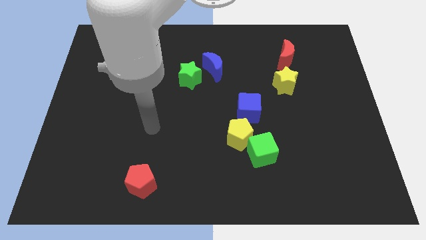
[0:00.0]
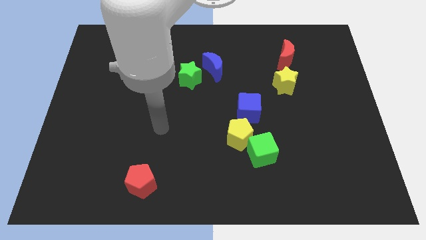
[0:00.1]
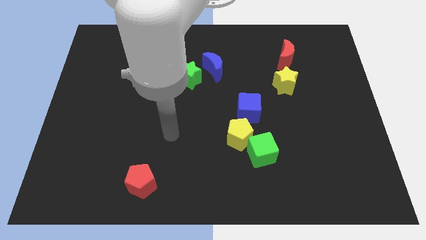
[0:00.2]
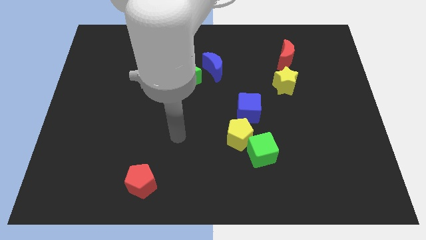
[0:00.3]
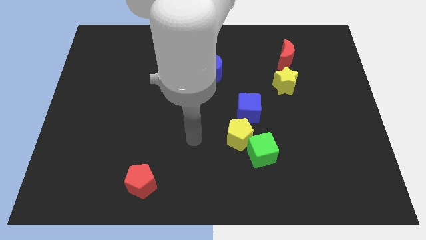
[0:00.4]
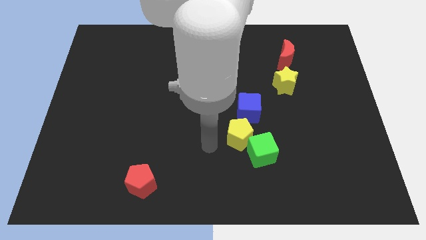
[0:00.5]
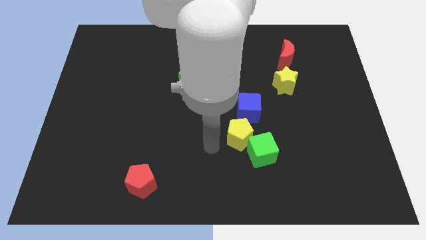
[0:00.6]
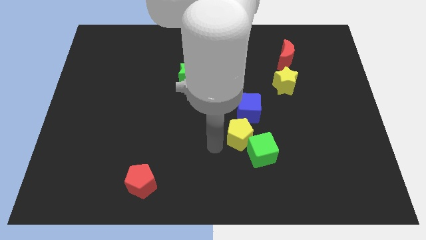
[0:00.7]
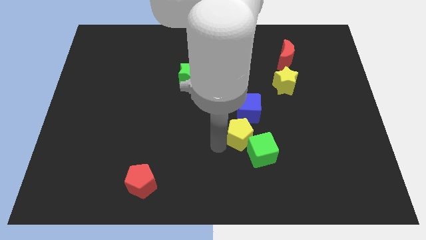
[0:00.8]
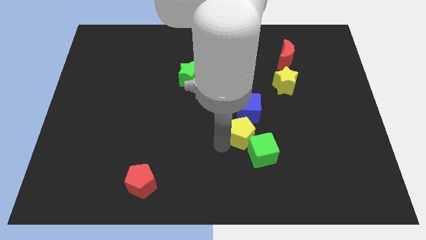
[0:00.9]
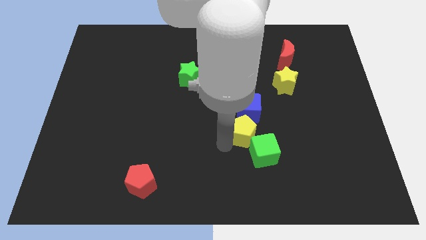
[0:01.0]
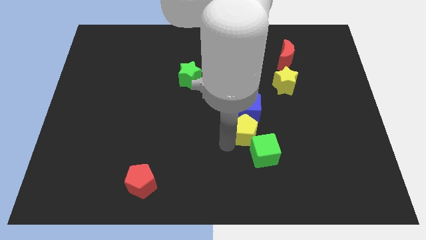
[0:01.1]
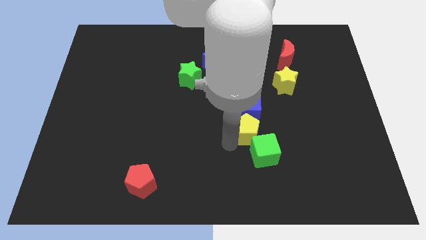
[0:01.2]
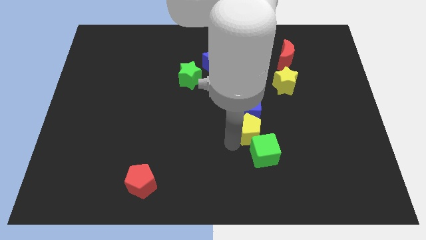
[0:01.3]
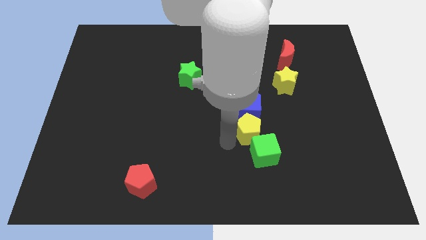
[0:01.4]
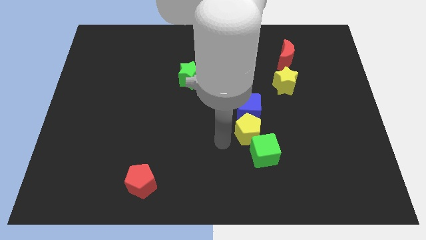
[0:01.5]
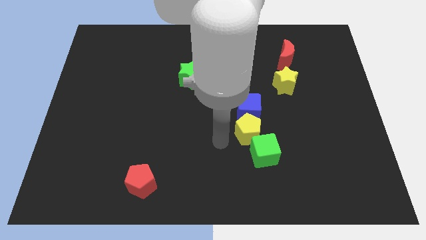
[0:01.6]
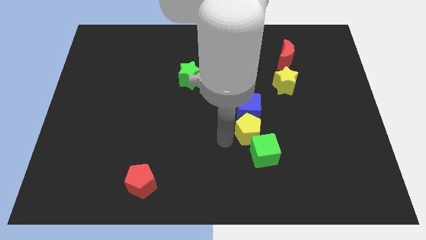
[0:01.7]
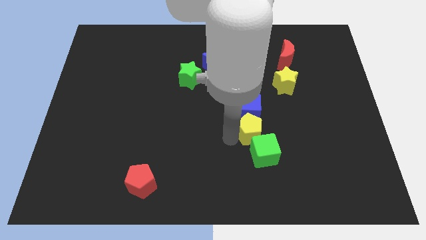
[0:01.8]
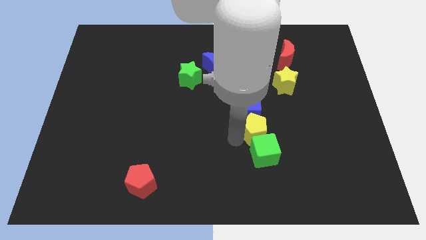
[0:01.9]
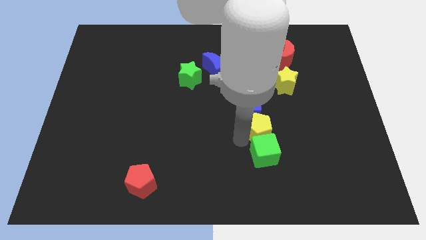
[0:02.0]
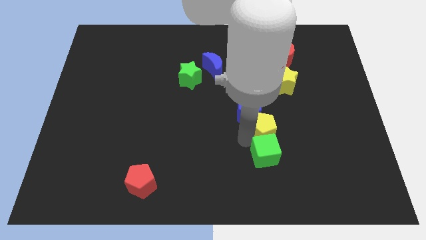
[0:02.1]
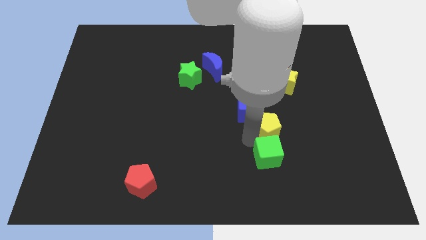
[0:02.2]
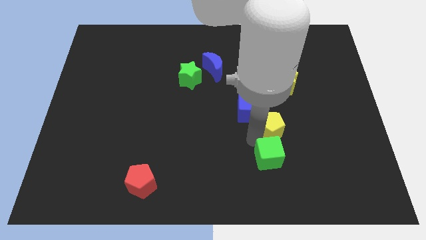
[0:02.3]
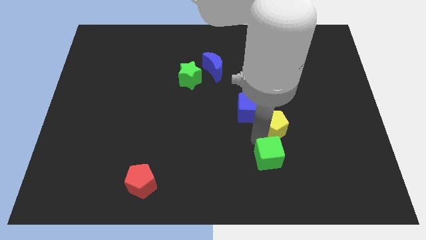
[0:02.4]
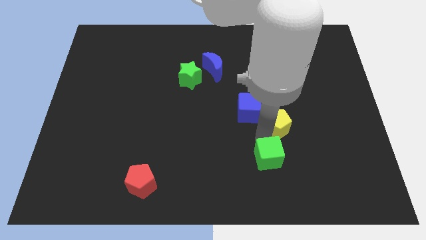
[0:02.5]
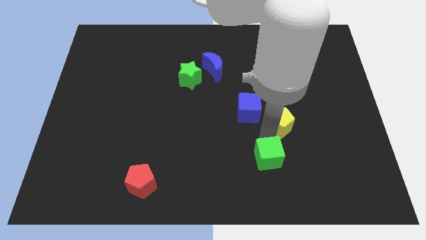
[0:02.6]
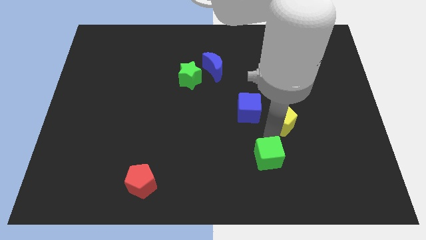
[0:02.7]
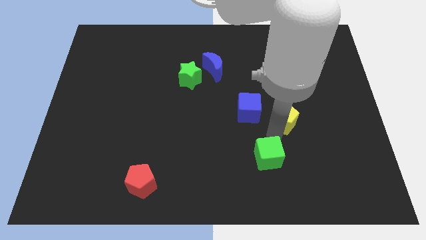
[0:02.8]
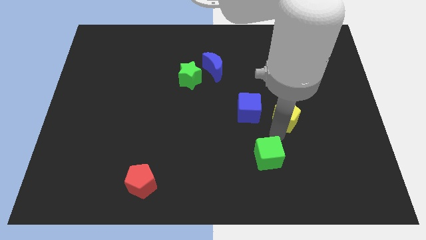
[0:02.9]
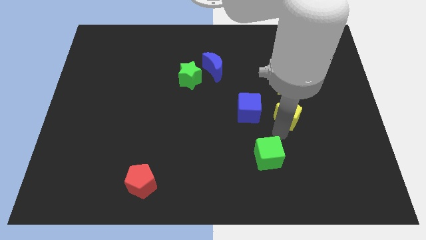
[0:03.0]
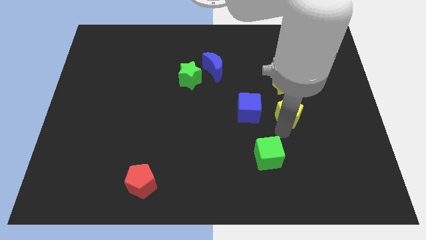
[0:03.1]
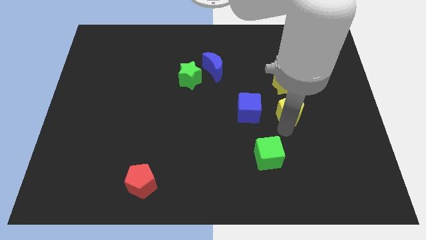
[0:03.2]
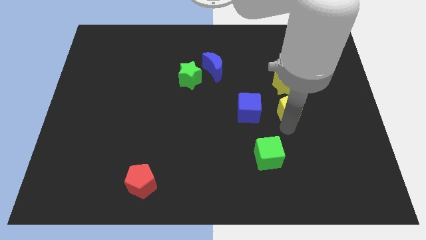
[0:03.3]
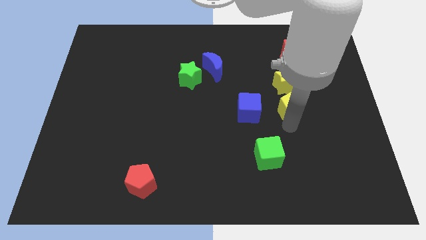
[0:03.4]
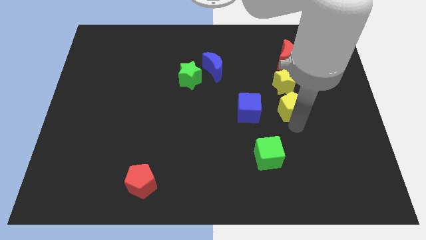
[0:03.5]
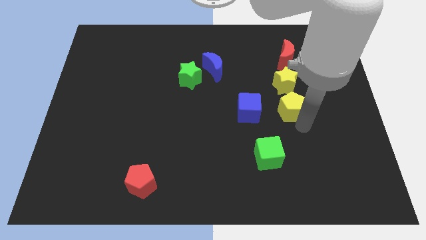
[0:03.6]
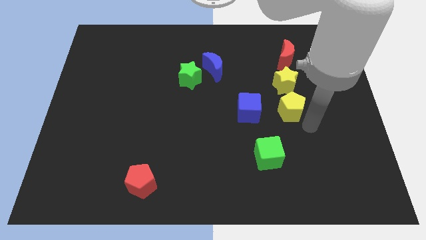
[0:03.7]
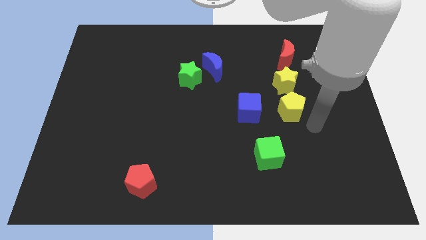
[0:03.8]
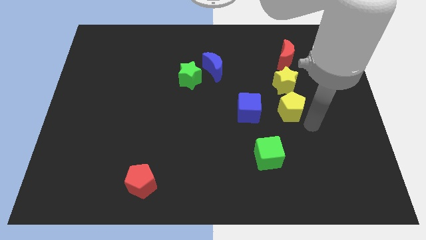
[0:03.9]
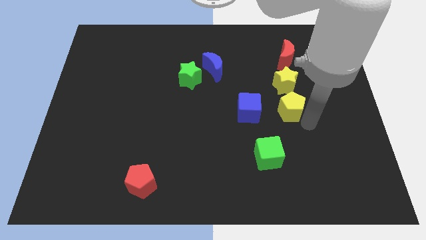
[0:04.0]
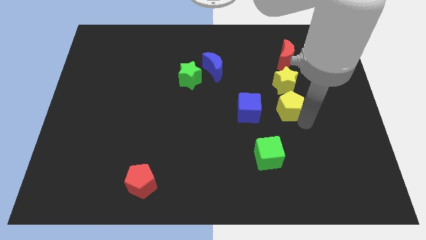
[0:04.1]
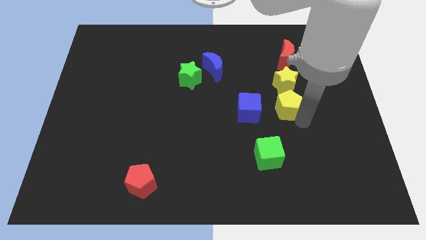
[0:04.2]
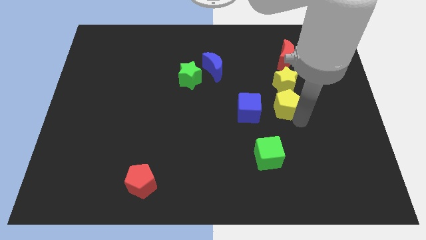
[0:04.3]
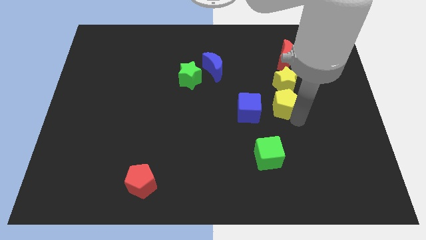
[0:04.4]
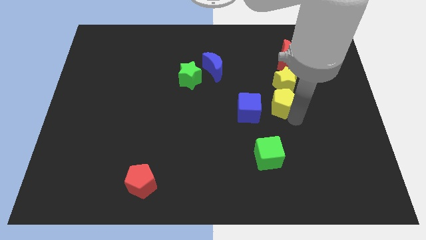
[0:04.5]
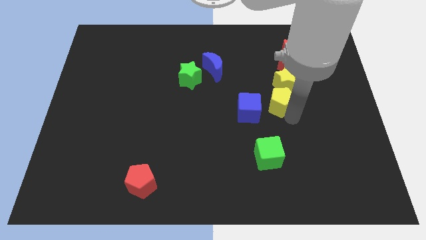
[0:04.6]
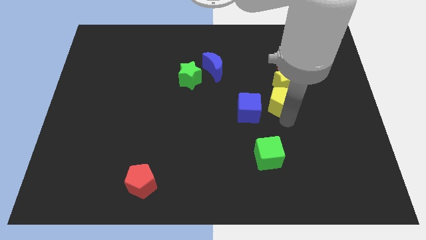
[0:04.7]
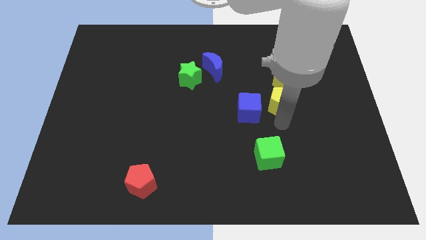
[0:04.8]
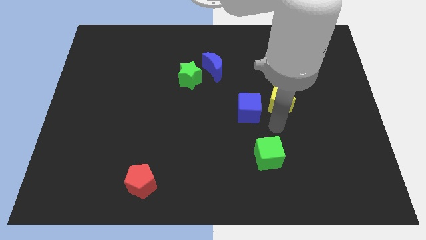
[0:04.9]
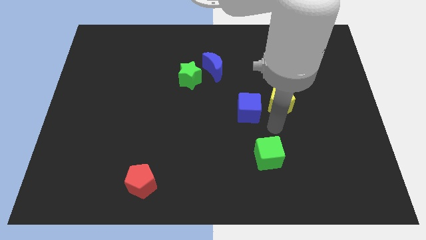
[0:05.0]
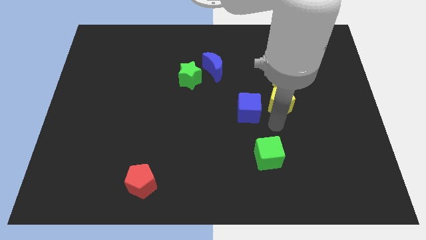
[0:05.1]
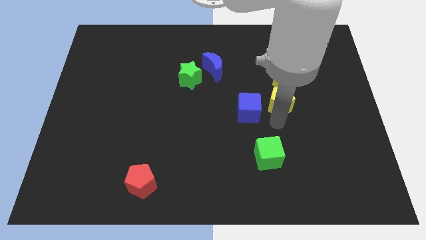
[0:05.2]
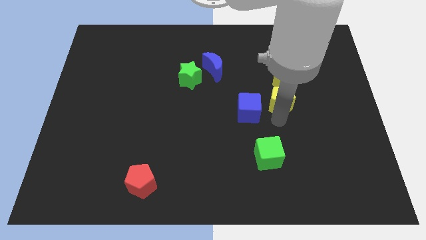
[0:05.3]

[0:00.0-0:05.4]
move the yellow pentagon close to the yellow star

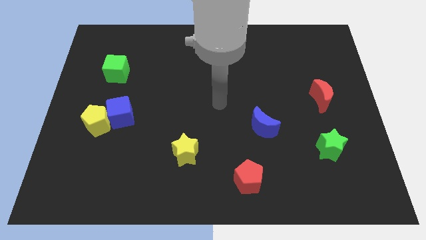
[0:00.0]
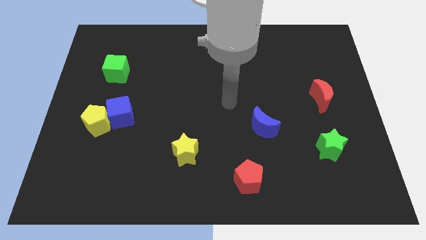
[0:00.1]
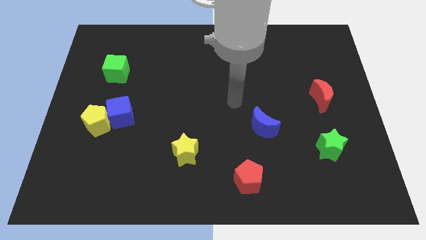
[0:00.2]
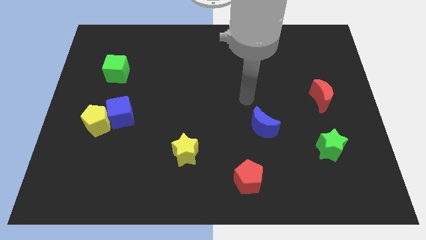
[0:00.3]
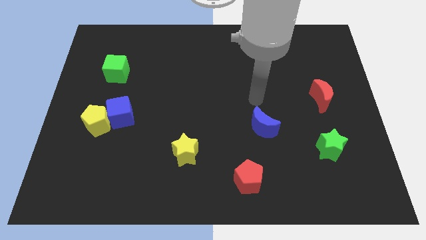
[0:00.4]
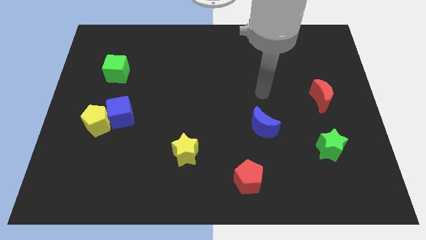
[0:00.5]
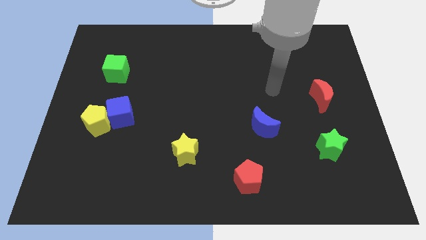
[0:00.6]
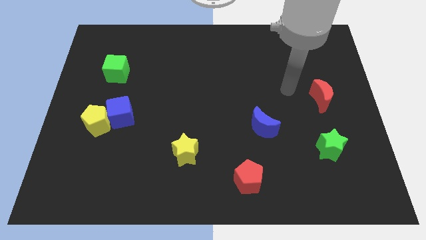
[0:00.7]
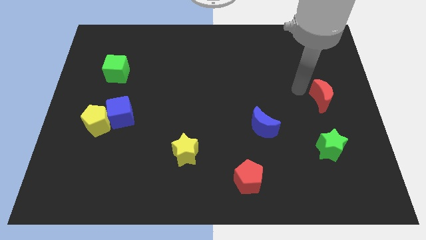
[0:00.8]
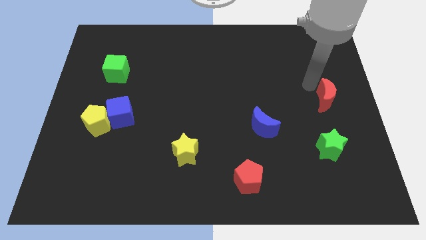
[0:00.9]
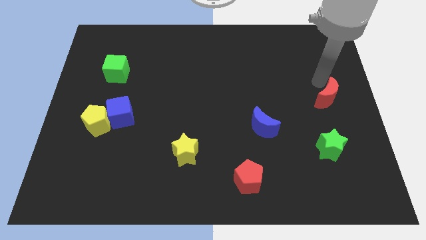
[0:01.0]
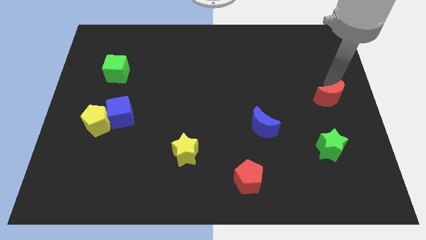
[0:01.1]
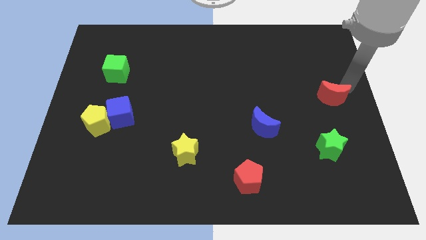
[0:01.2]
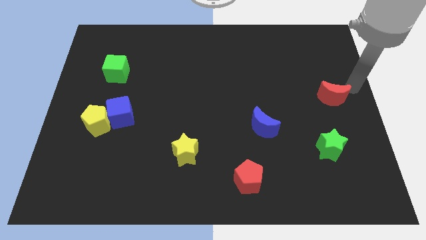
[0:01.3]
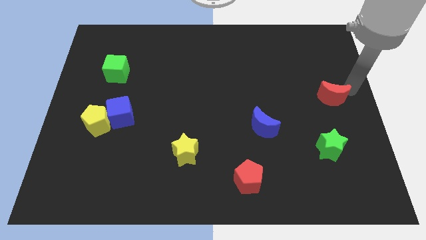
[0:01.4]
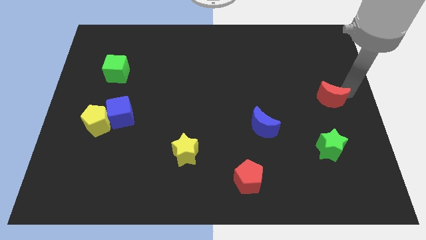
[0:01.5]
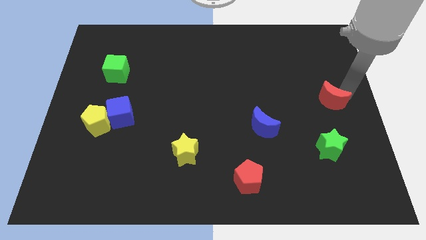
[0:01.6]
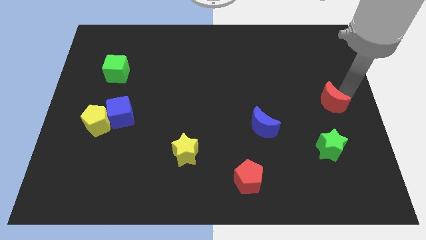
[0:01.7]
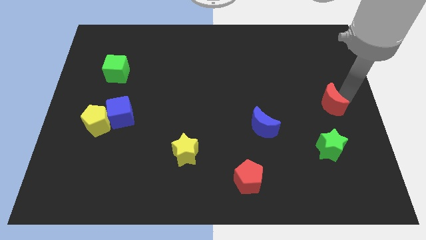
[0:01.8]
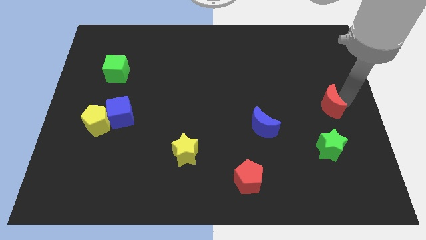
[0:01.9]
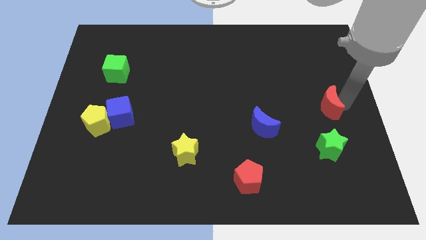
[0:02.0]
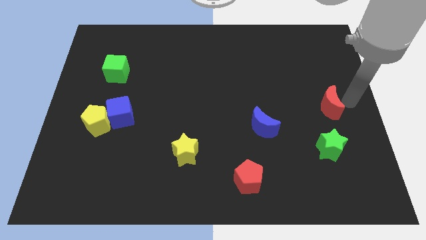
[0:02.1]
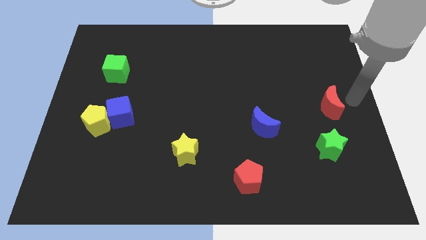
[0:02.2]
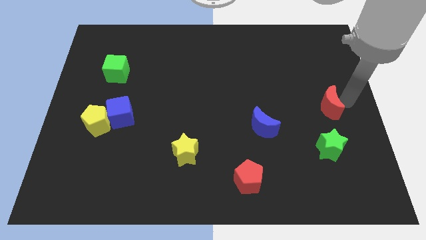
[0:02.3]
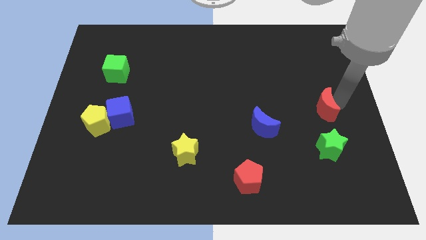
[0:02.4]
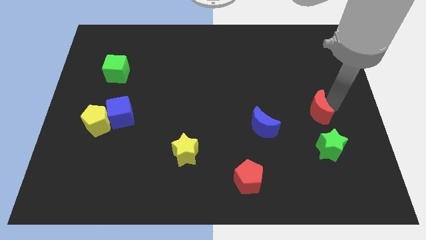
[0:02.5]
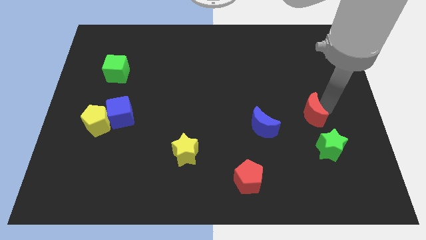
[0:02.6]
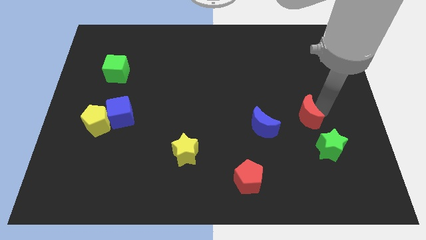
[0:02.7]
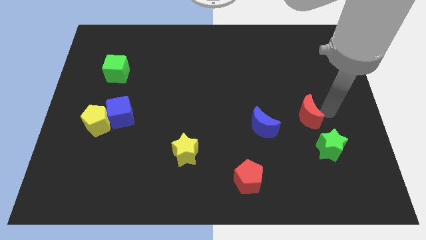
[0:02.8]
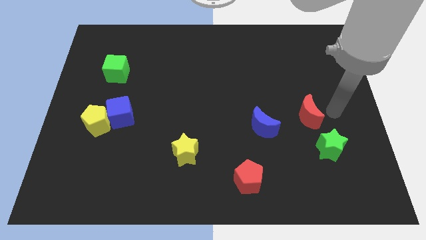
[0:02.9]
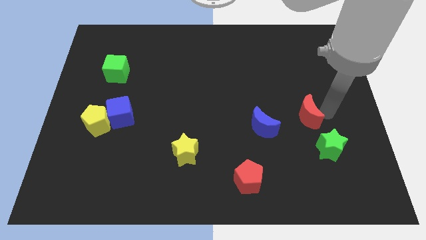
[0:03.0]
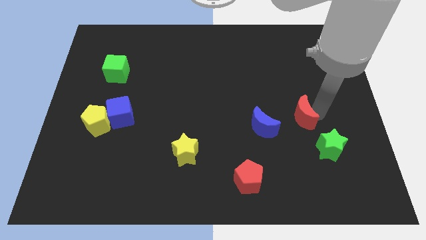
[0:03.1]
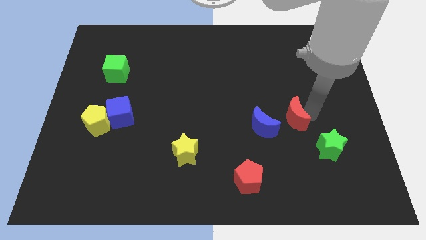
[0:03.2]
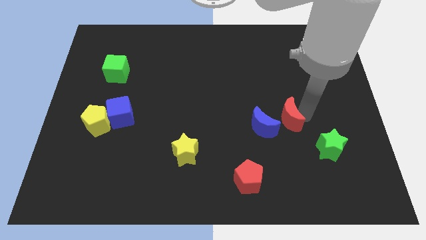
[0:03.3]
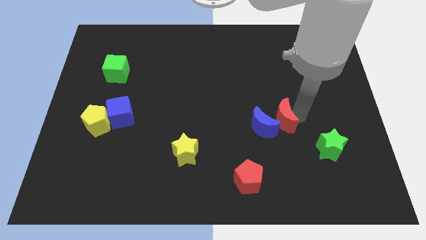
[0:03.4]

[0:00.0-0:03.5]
move the red moon next to the blue moon
